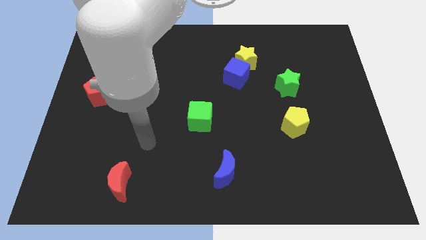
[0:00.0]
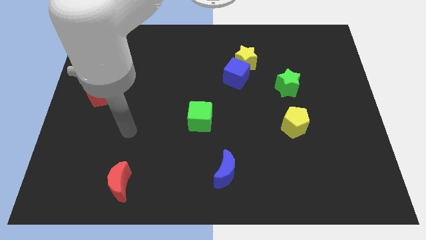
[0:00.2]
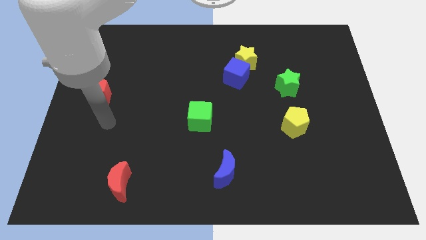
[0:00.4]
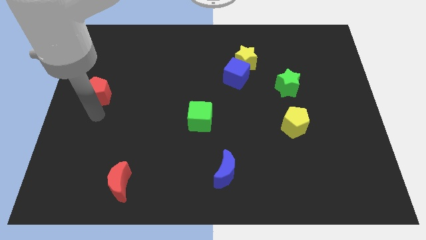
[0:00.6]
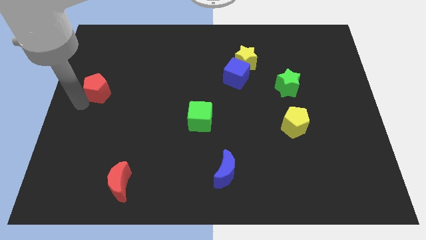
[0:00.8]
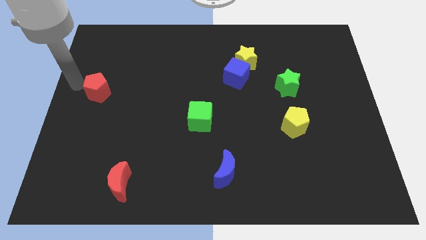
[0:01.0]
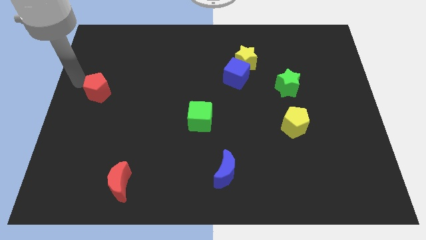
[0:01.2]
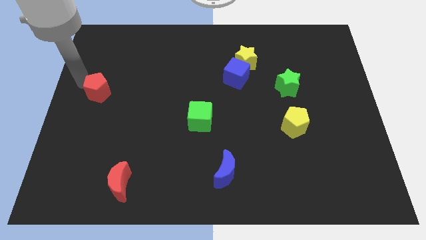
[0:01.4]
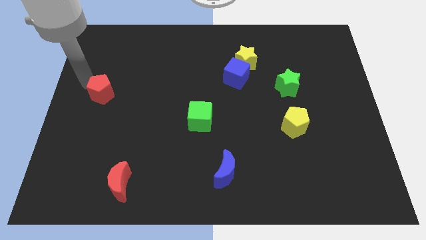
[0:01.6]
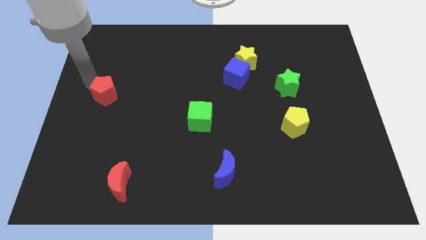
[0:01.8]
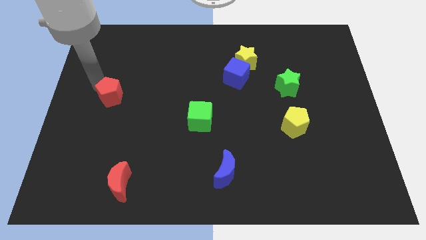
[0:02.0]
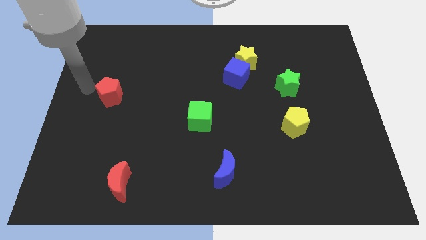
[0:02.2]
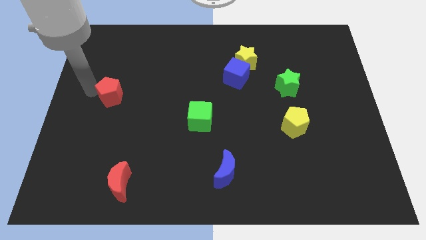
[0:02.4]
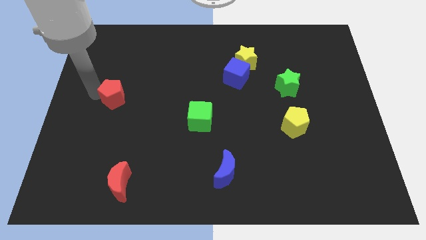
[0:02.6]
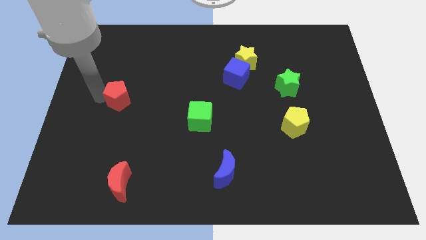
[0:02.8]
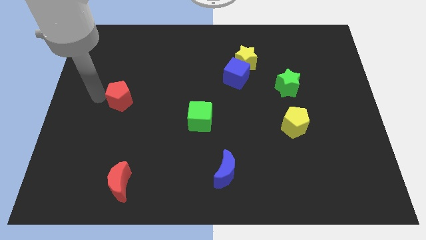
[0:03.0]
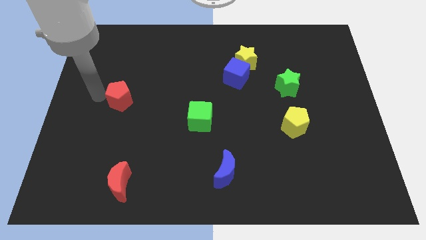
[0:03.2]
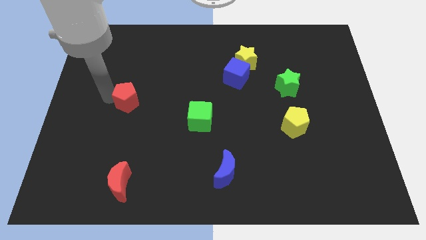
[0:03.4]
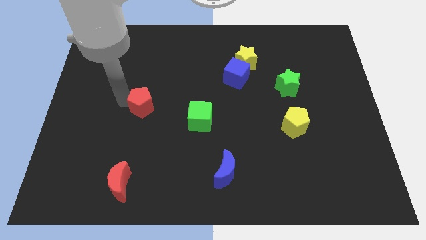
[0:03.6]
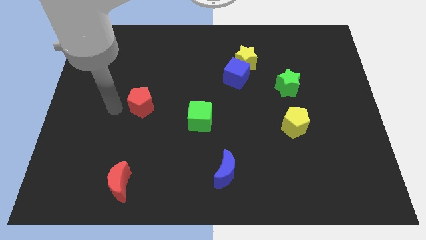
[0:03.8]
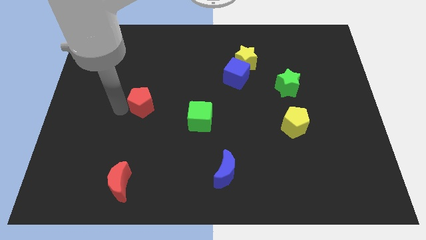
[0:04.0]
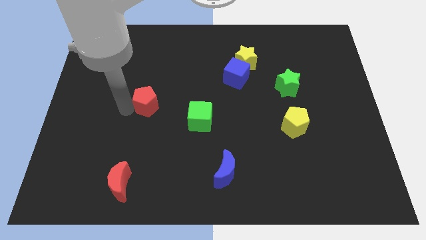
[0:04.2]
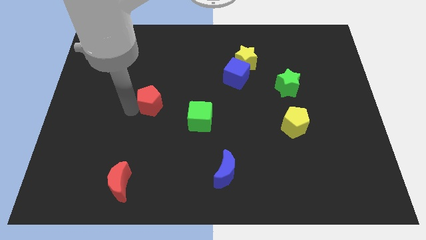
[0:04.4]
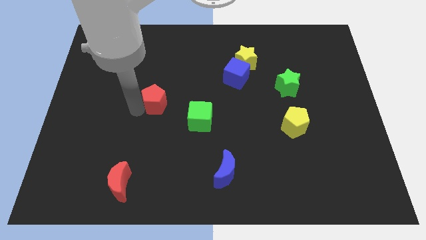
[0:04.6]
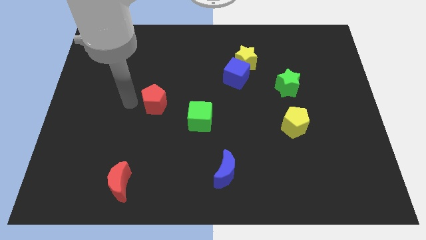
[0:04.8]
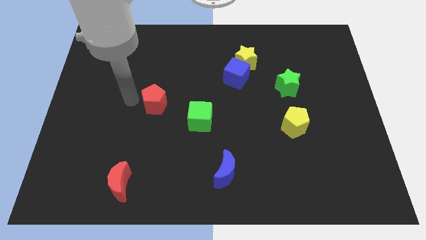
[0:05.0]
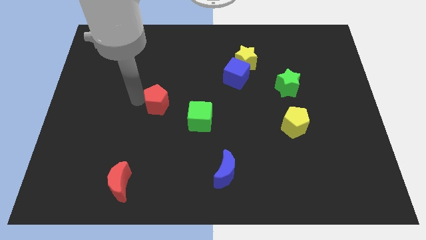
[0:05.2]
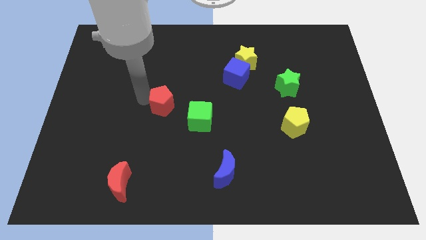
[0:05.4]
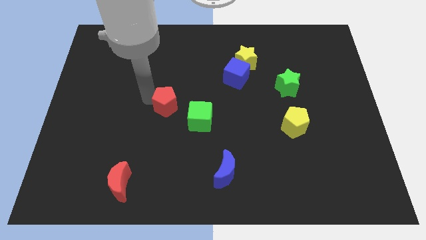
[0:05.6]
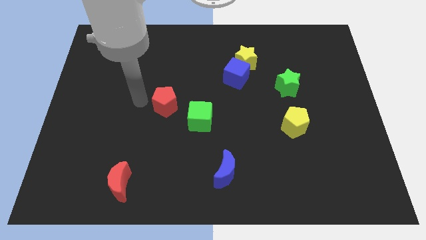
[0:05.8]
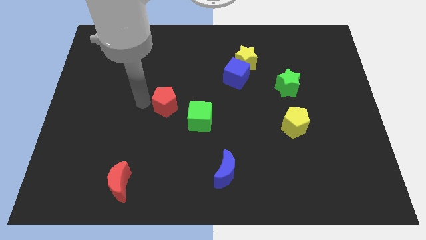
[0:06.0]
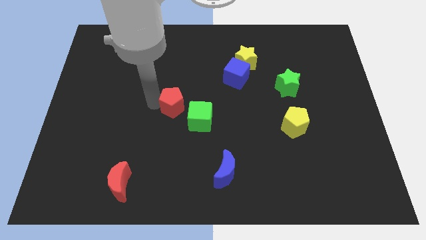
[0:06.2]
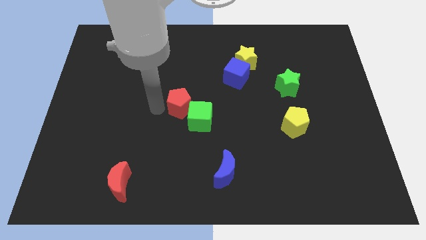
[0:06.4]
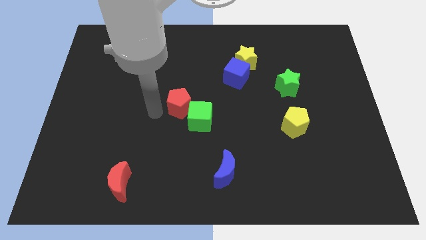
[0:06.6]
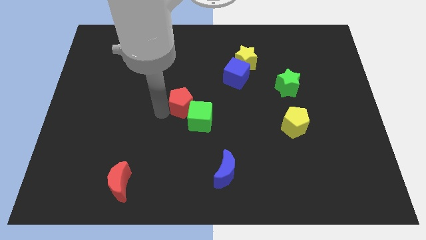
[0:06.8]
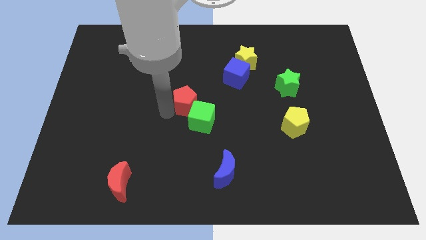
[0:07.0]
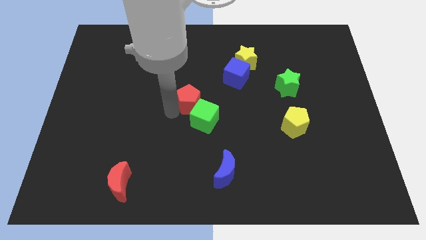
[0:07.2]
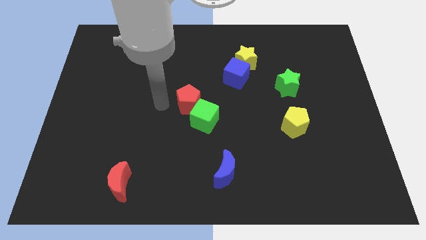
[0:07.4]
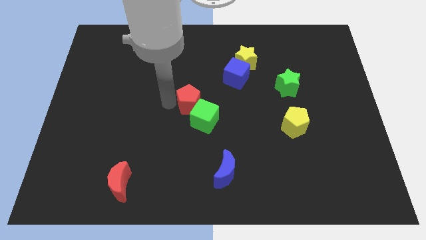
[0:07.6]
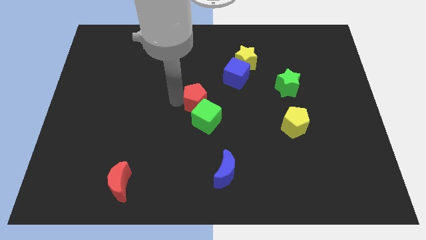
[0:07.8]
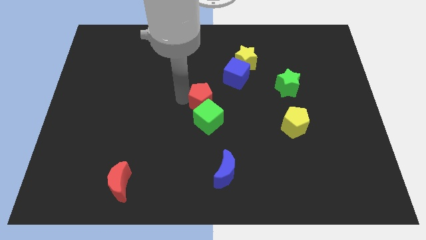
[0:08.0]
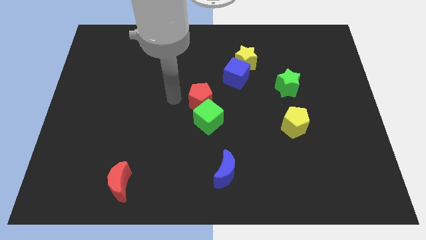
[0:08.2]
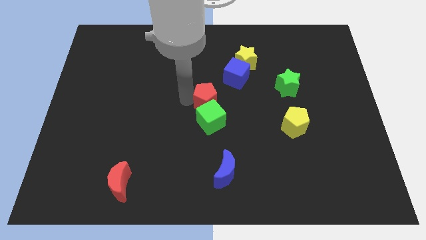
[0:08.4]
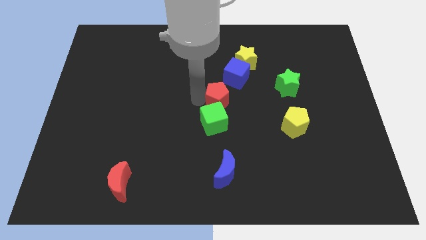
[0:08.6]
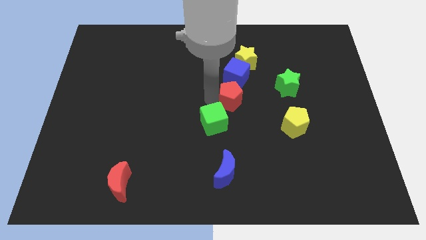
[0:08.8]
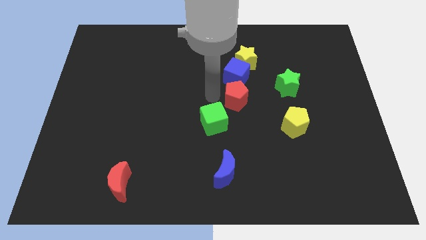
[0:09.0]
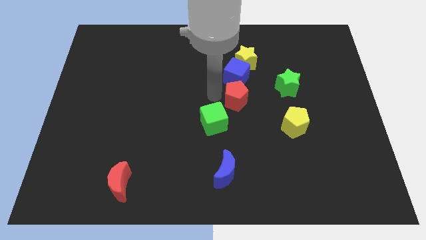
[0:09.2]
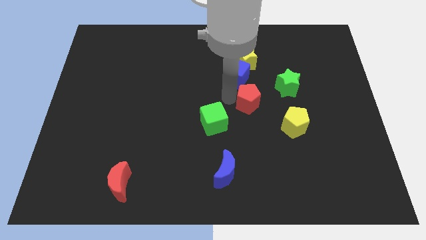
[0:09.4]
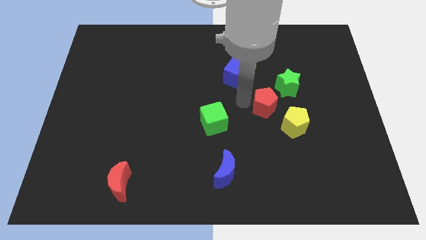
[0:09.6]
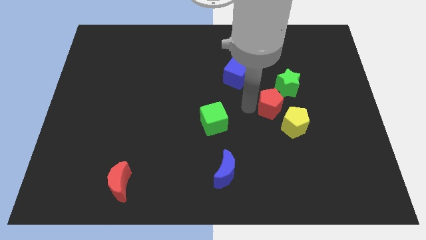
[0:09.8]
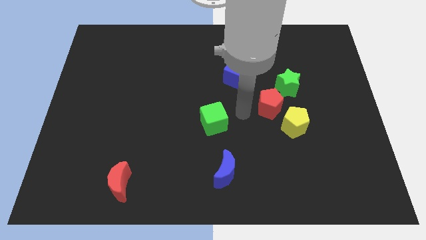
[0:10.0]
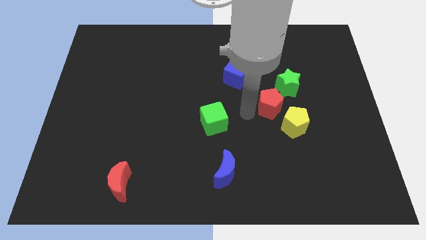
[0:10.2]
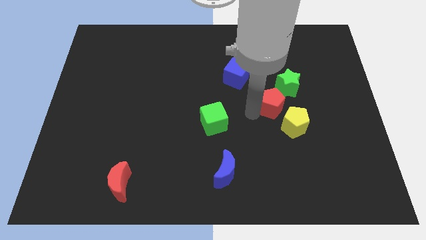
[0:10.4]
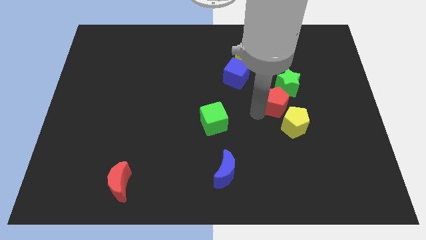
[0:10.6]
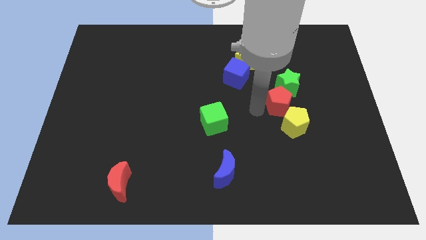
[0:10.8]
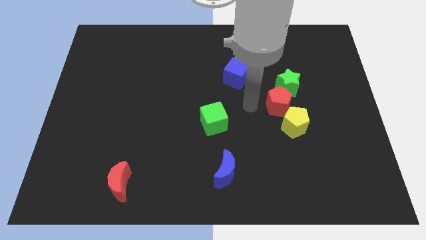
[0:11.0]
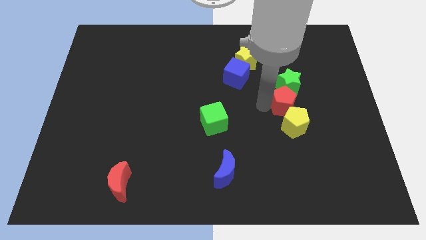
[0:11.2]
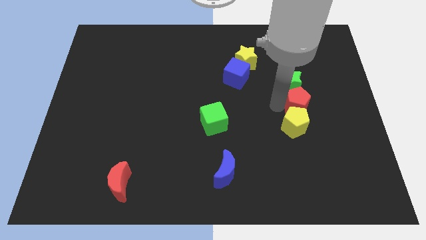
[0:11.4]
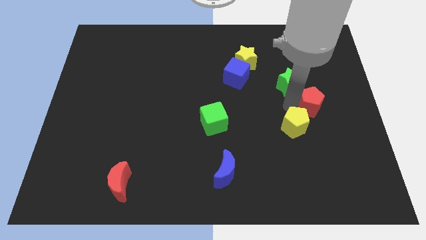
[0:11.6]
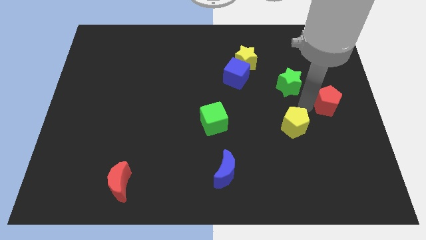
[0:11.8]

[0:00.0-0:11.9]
push the red pentagon to the right side of the board

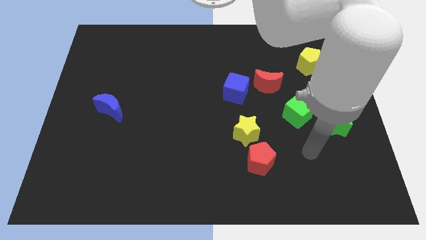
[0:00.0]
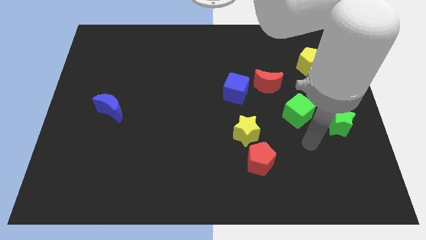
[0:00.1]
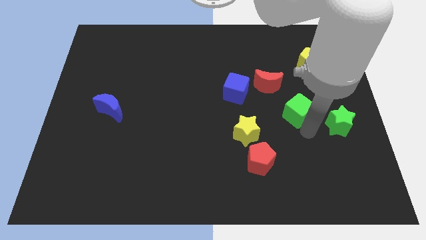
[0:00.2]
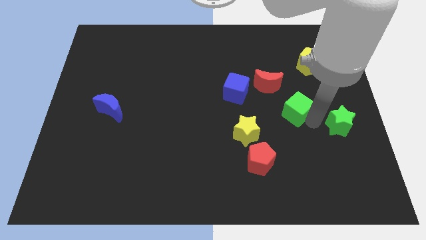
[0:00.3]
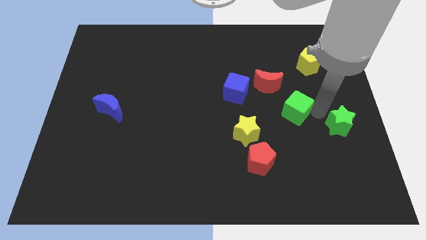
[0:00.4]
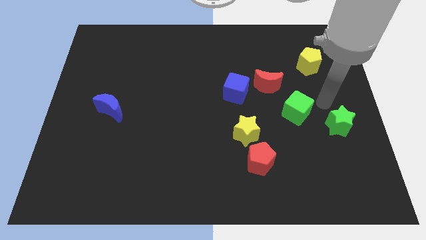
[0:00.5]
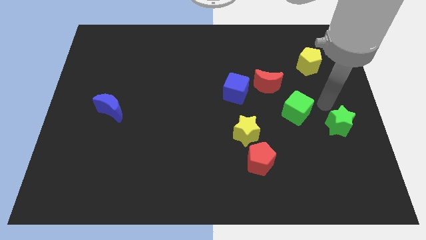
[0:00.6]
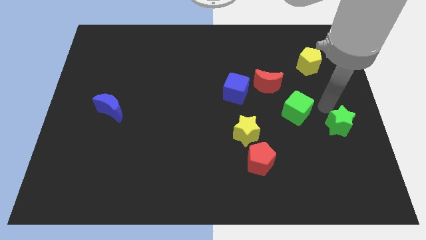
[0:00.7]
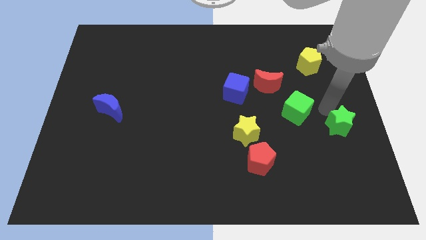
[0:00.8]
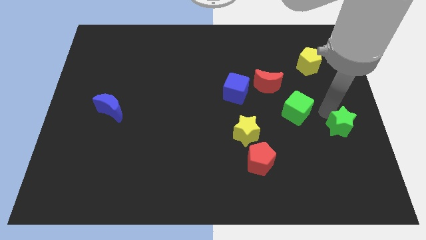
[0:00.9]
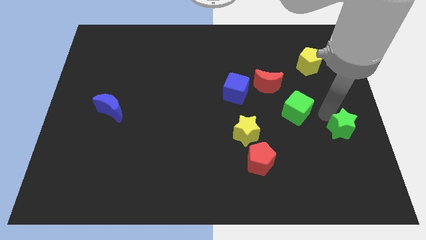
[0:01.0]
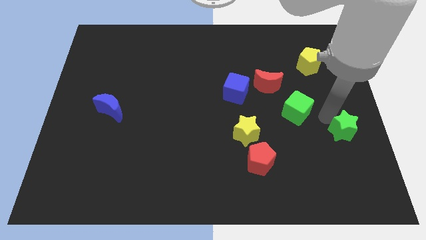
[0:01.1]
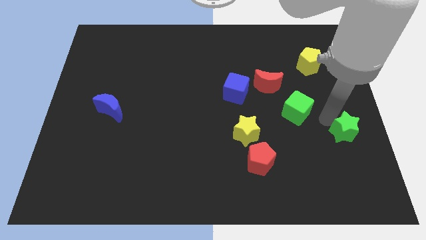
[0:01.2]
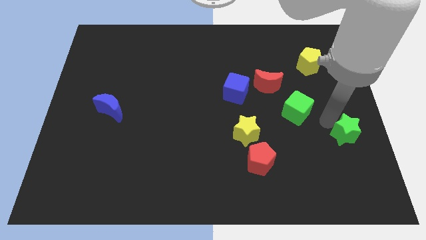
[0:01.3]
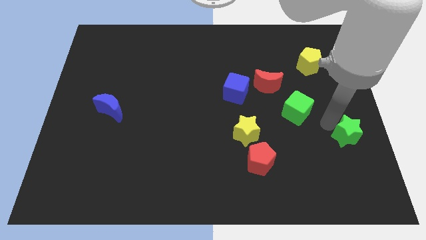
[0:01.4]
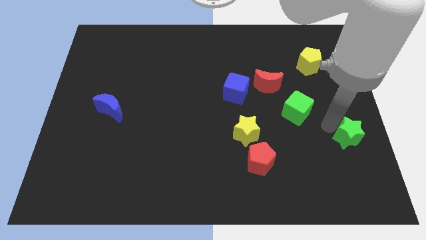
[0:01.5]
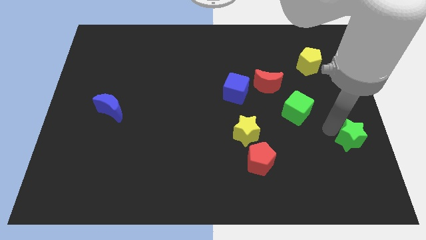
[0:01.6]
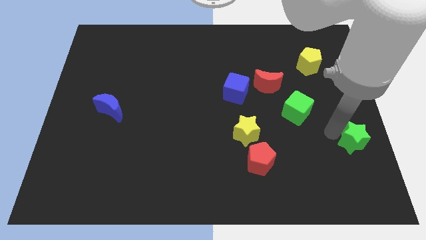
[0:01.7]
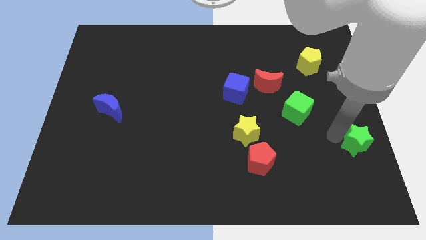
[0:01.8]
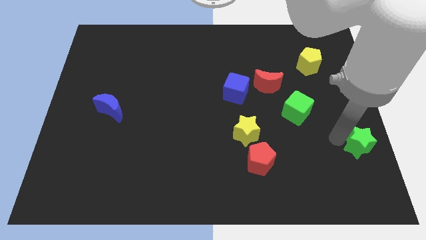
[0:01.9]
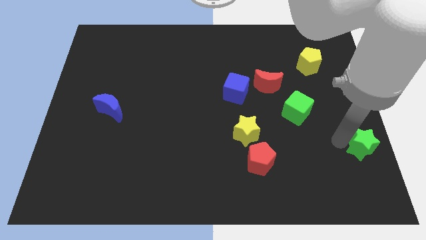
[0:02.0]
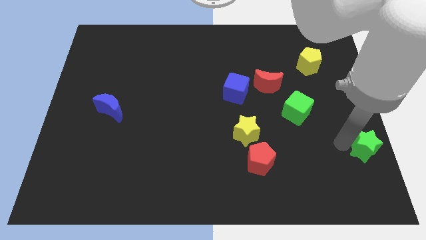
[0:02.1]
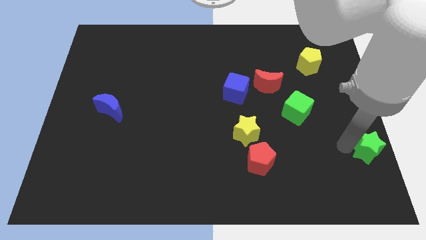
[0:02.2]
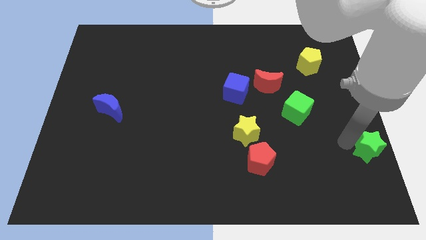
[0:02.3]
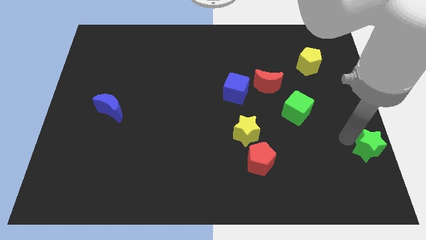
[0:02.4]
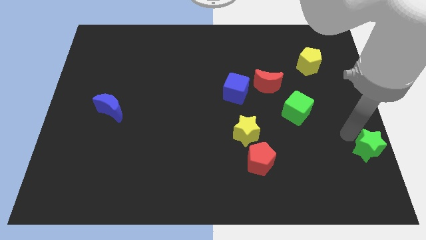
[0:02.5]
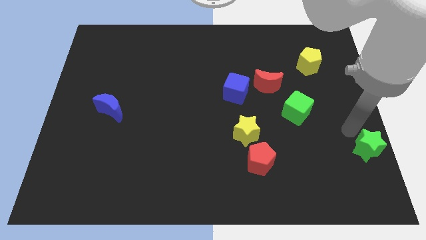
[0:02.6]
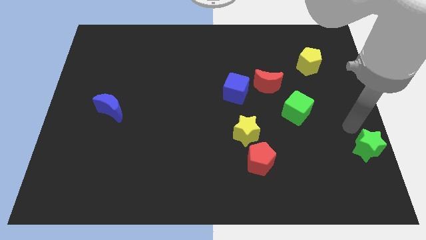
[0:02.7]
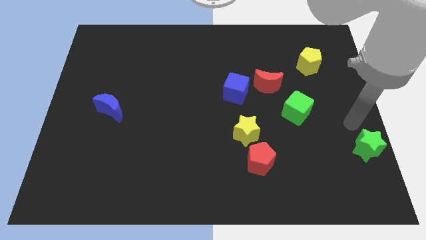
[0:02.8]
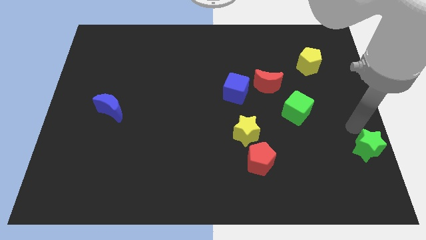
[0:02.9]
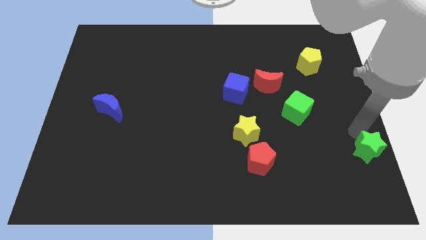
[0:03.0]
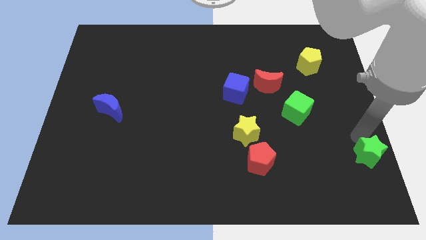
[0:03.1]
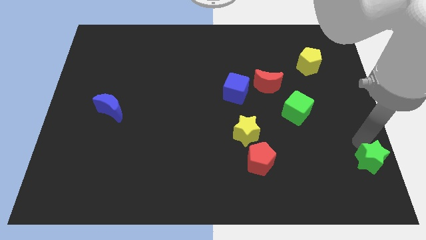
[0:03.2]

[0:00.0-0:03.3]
put the green star to the bottom right corner
